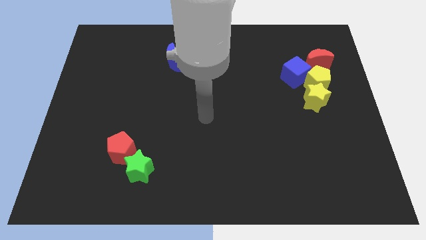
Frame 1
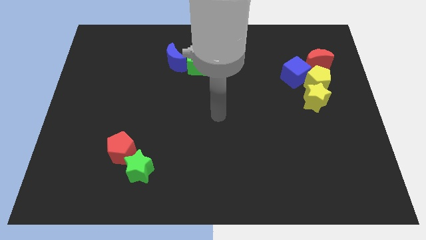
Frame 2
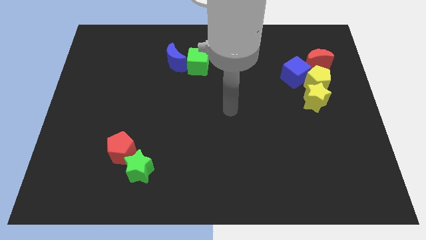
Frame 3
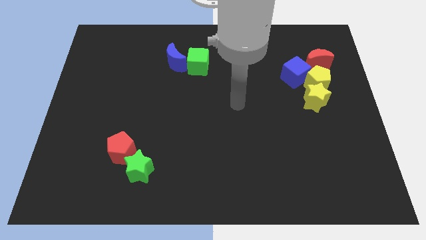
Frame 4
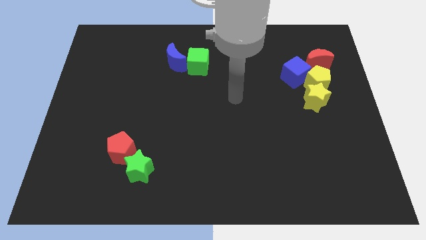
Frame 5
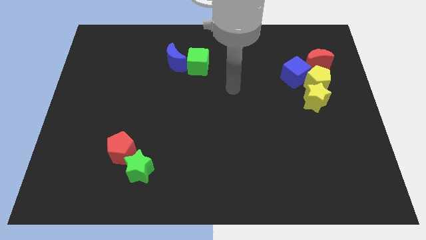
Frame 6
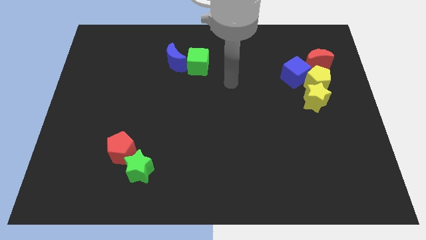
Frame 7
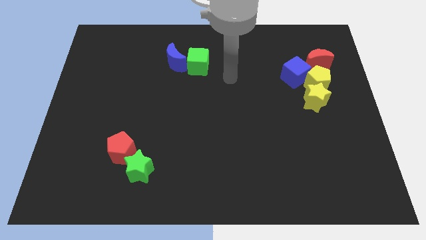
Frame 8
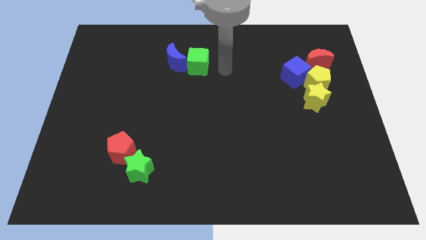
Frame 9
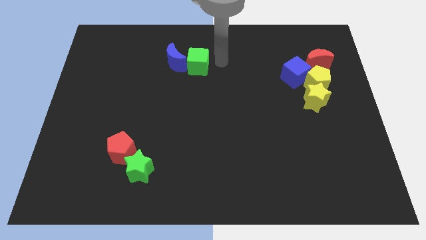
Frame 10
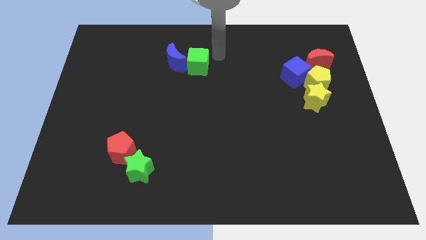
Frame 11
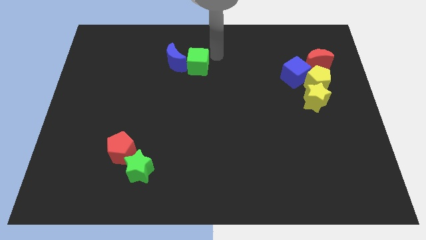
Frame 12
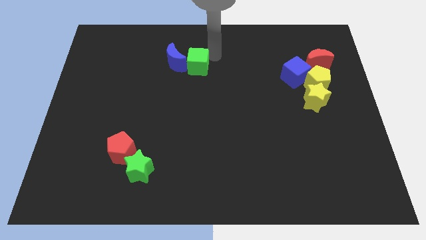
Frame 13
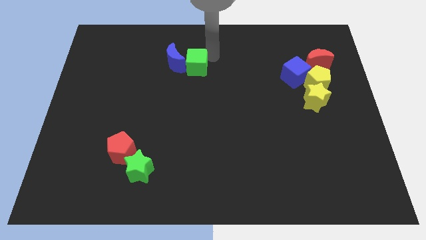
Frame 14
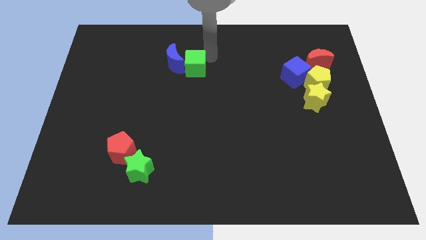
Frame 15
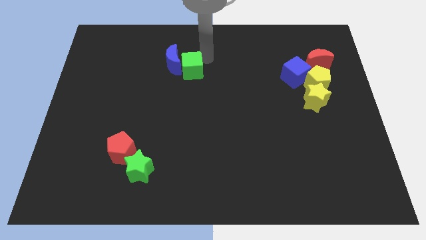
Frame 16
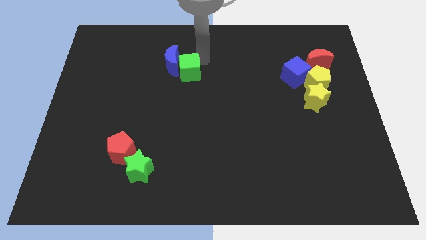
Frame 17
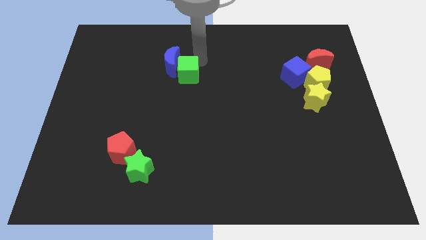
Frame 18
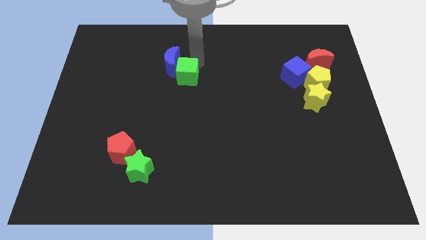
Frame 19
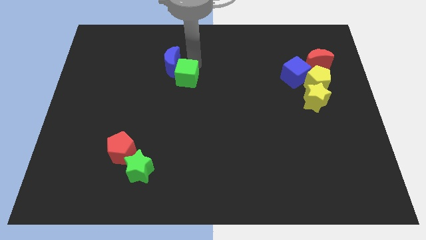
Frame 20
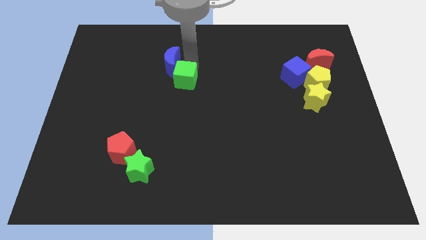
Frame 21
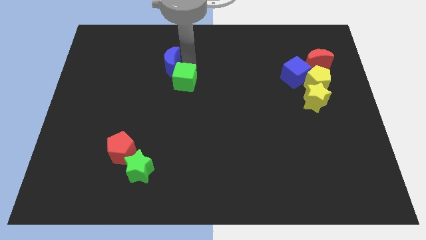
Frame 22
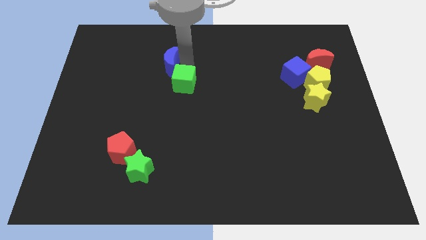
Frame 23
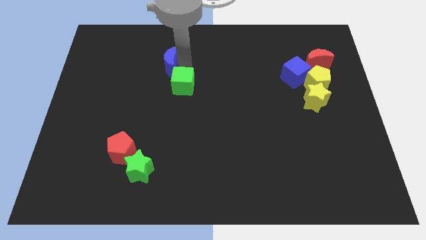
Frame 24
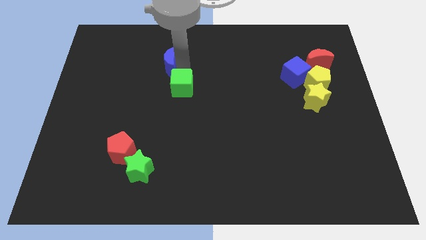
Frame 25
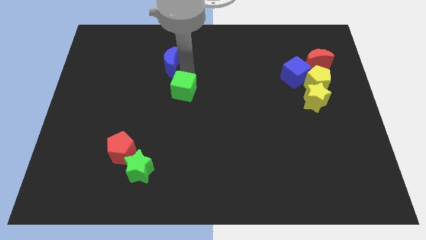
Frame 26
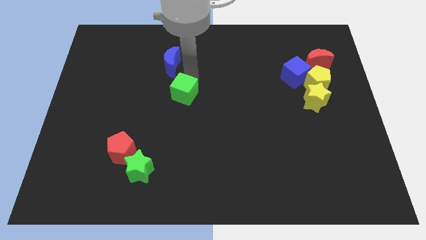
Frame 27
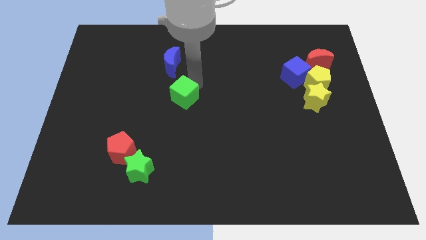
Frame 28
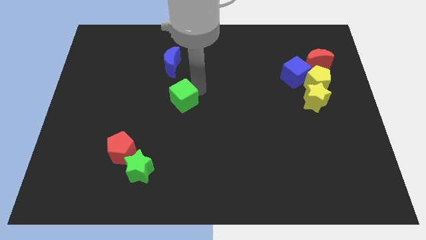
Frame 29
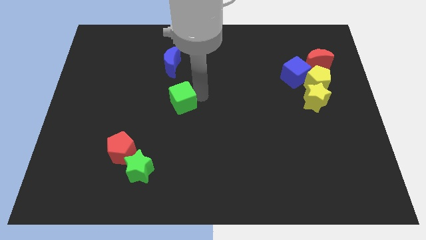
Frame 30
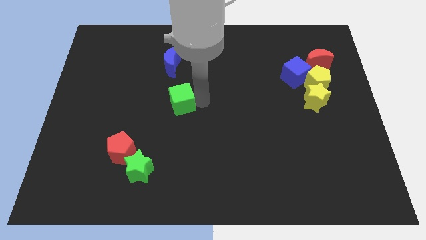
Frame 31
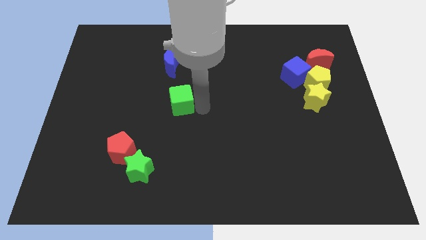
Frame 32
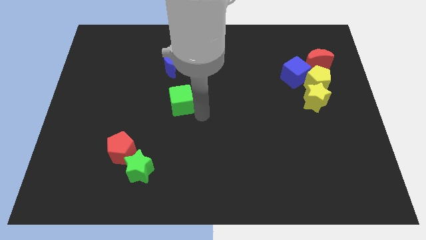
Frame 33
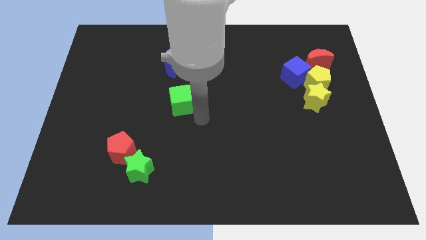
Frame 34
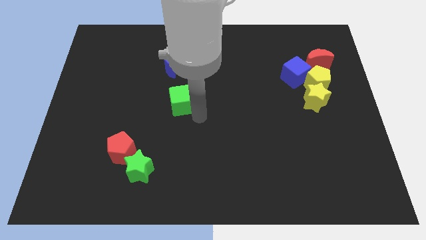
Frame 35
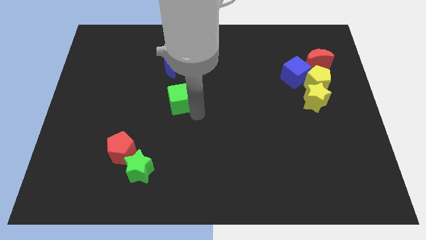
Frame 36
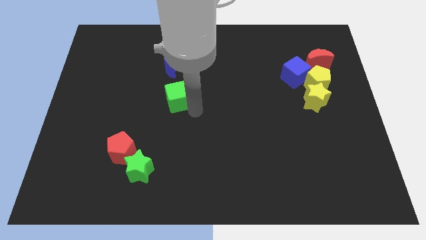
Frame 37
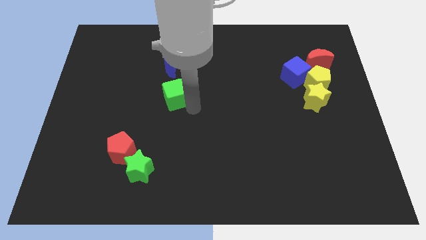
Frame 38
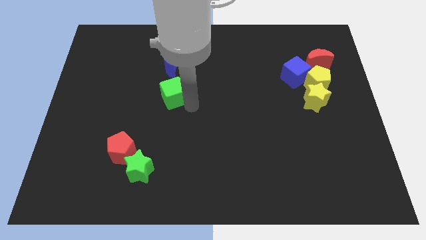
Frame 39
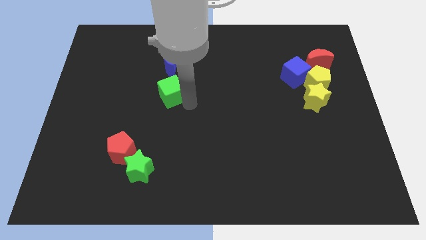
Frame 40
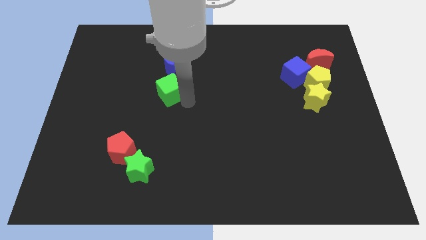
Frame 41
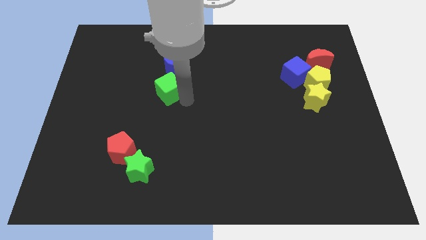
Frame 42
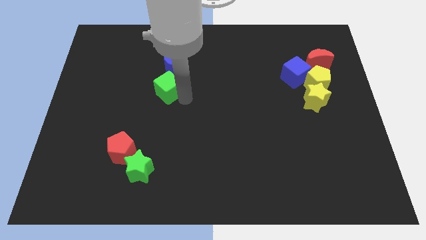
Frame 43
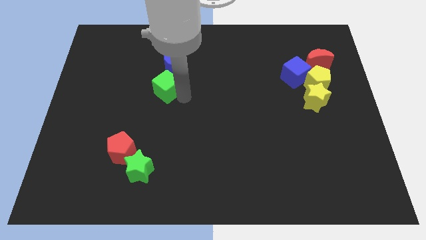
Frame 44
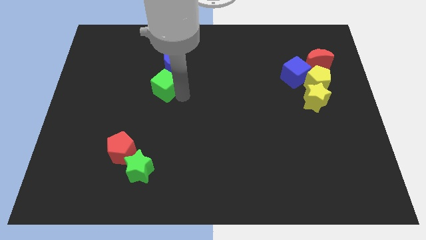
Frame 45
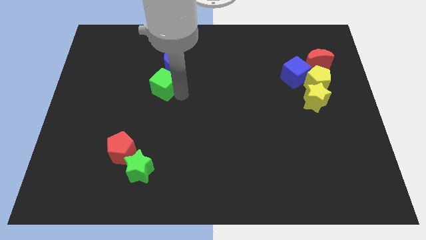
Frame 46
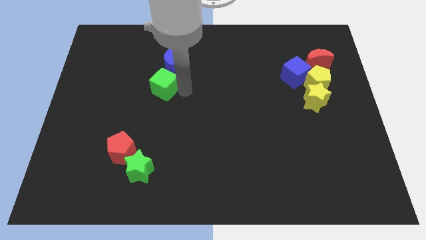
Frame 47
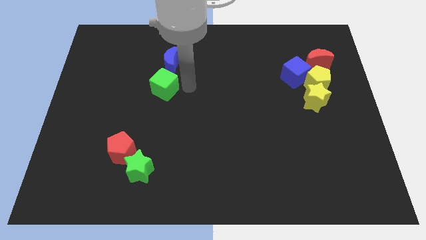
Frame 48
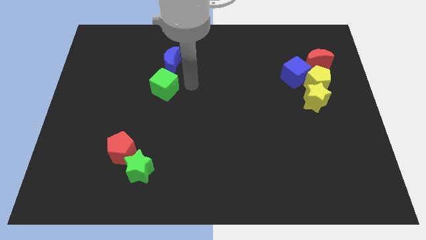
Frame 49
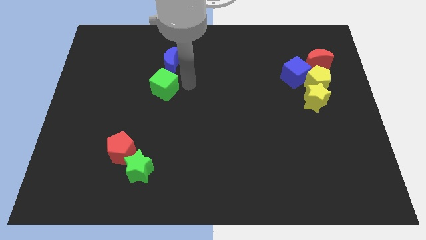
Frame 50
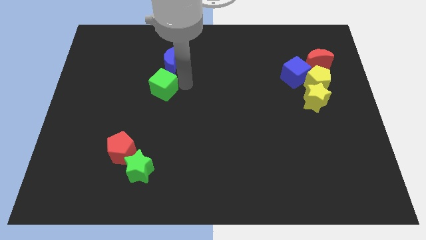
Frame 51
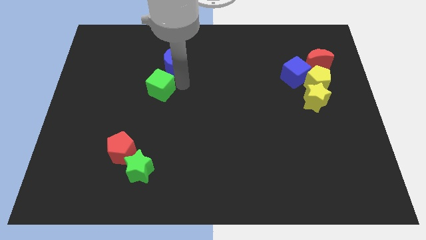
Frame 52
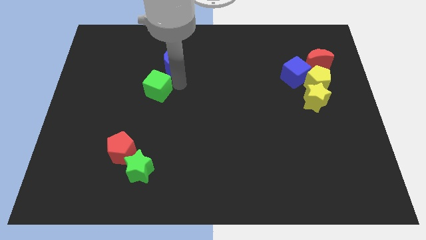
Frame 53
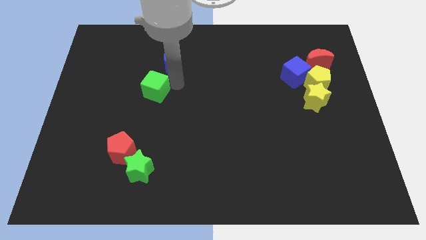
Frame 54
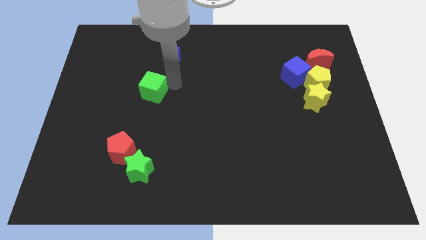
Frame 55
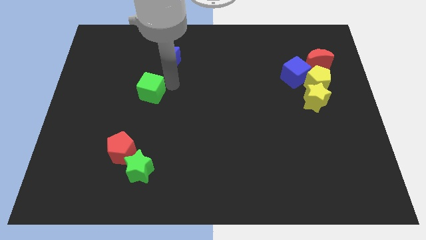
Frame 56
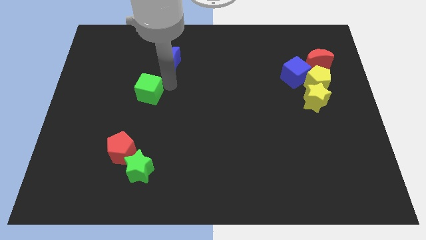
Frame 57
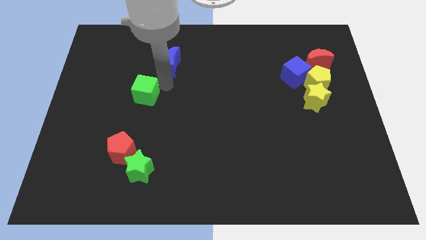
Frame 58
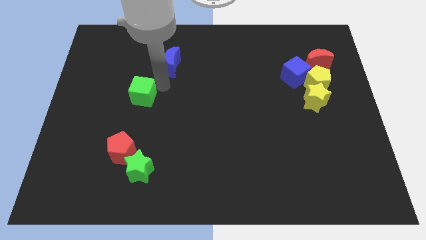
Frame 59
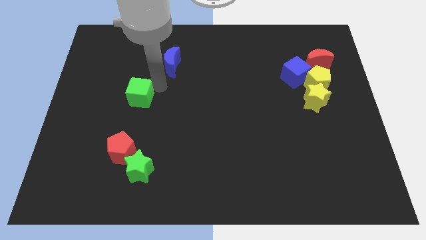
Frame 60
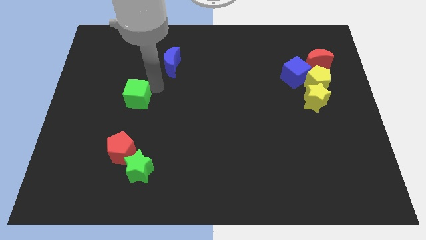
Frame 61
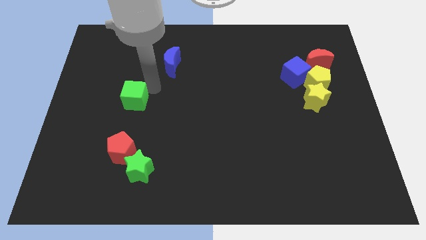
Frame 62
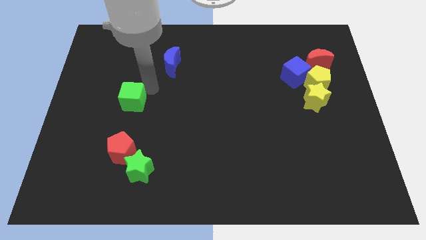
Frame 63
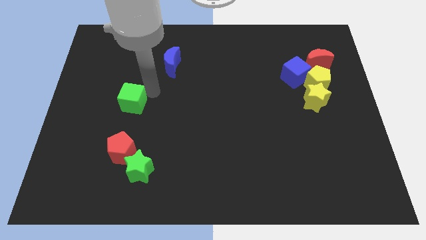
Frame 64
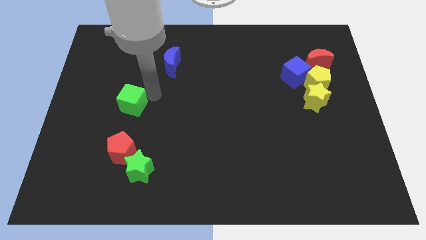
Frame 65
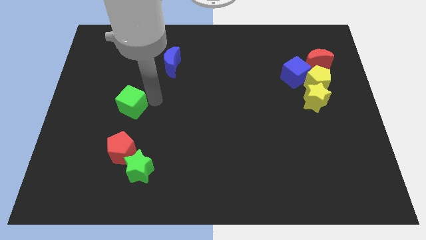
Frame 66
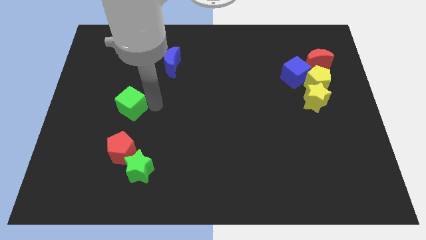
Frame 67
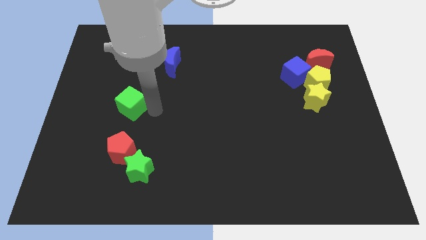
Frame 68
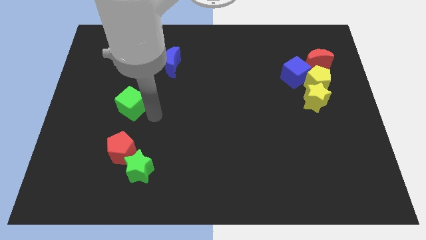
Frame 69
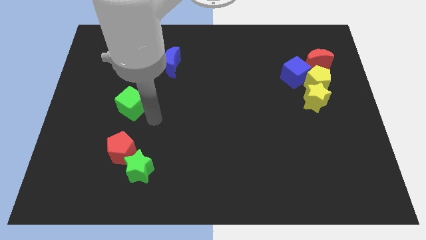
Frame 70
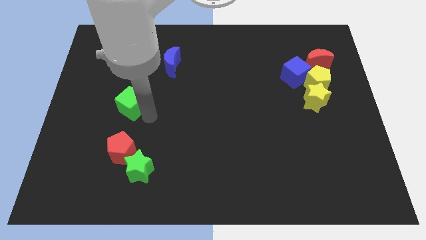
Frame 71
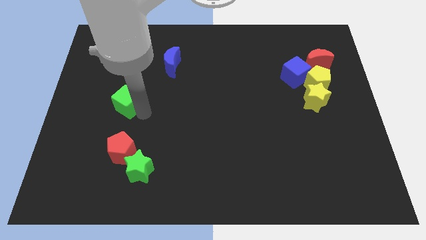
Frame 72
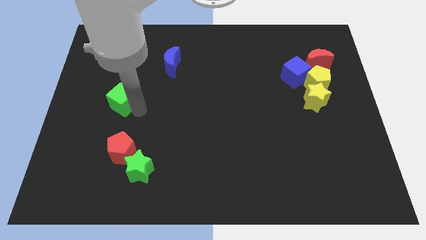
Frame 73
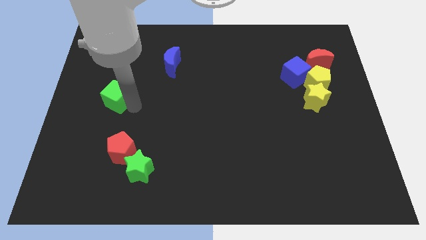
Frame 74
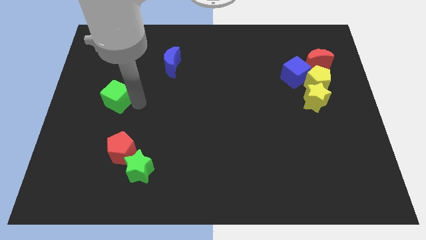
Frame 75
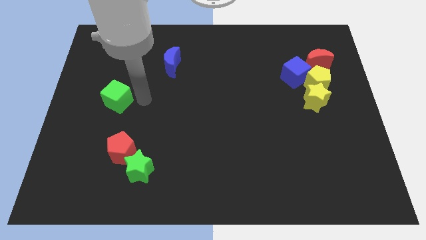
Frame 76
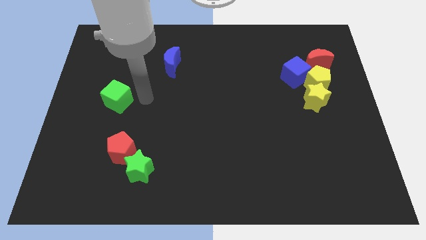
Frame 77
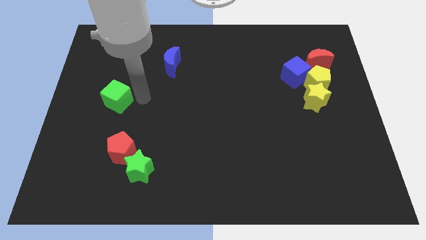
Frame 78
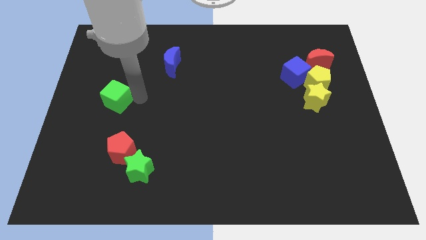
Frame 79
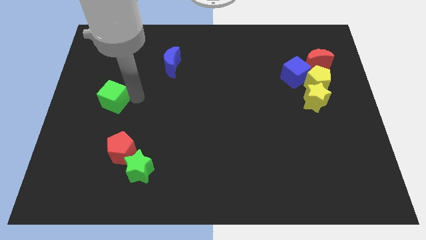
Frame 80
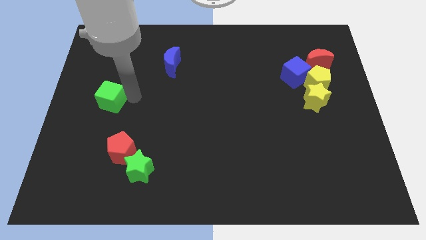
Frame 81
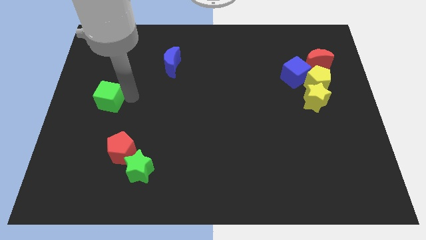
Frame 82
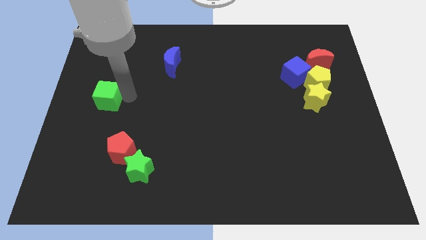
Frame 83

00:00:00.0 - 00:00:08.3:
push the green cube to the left side
